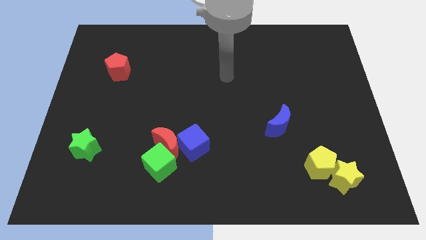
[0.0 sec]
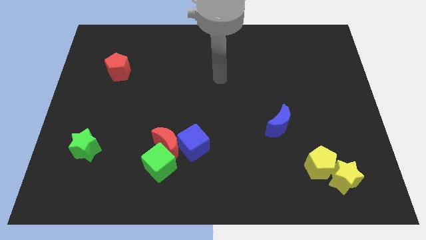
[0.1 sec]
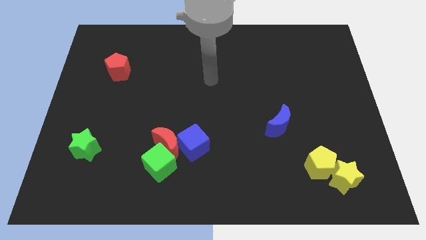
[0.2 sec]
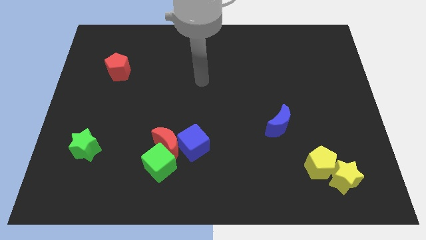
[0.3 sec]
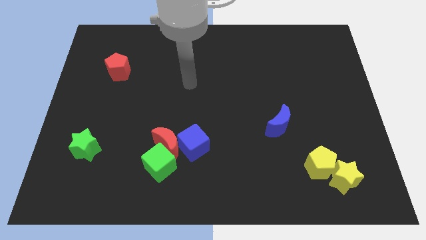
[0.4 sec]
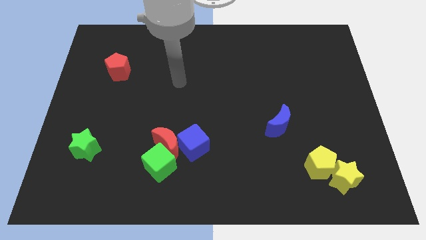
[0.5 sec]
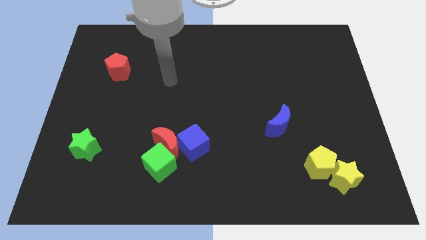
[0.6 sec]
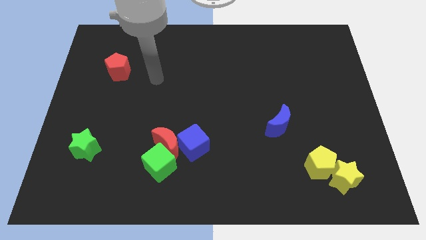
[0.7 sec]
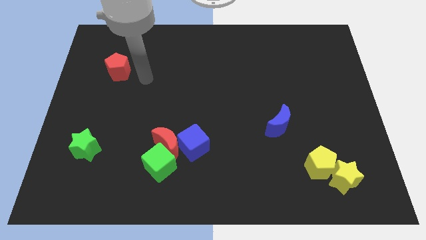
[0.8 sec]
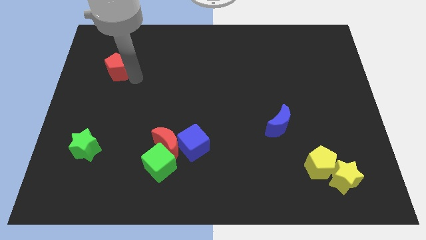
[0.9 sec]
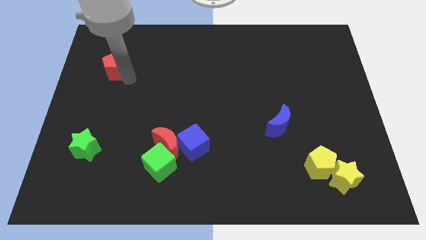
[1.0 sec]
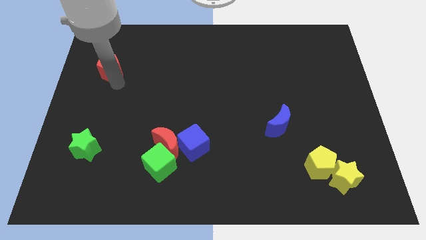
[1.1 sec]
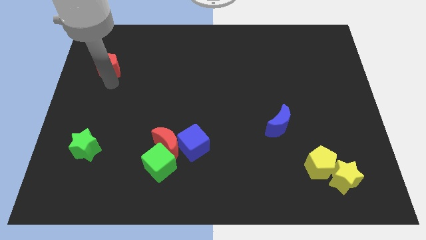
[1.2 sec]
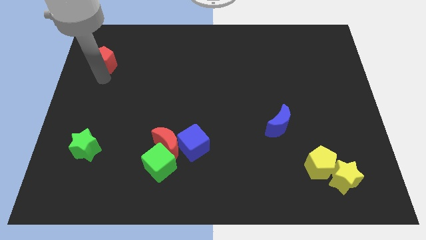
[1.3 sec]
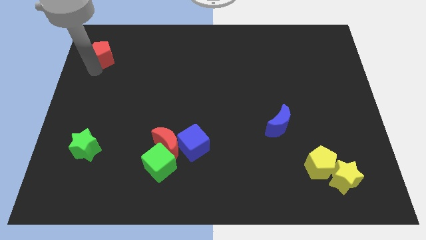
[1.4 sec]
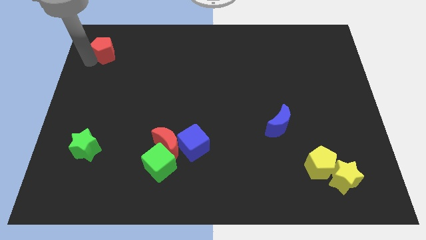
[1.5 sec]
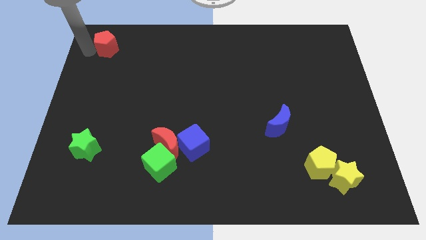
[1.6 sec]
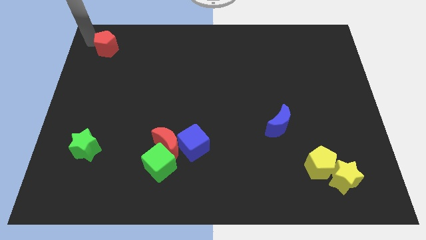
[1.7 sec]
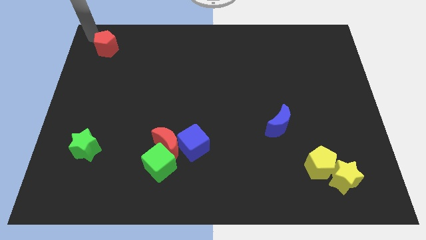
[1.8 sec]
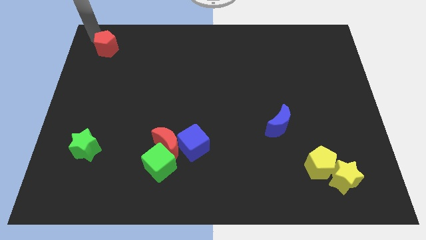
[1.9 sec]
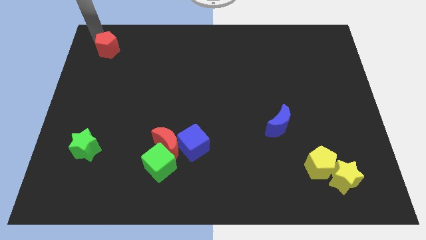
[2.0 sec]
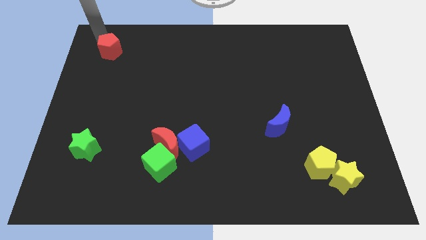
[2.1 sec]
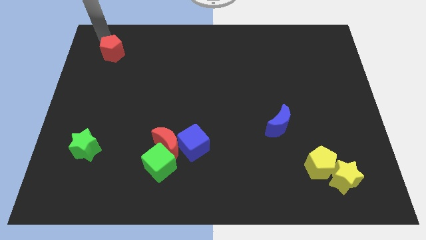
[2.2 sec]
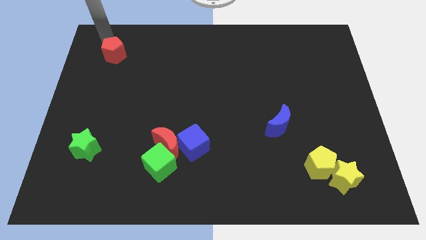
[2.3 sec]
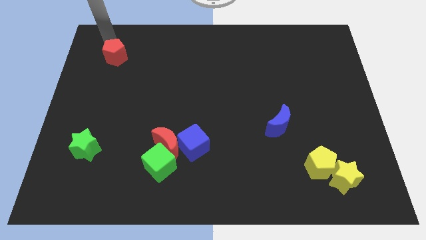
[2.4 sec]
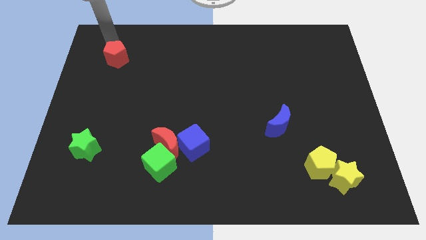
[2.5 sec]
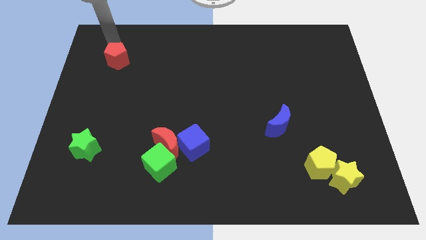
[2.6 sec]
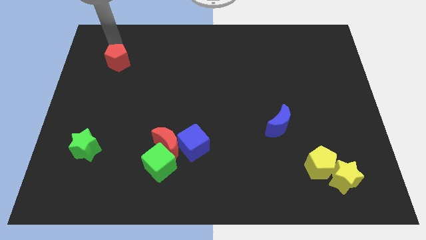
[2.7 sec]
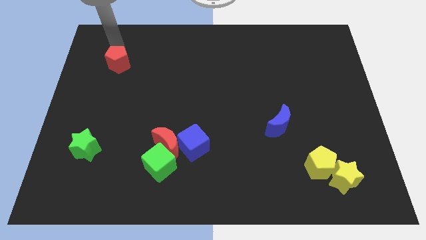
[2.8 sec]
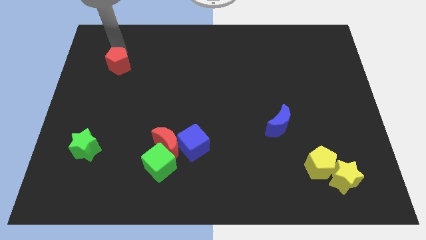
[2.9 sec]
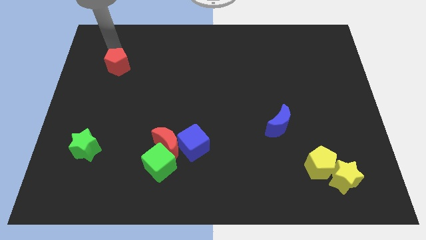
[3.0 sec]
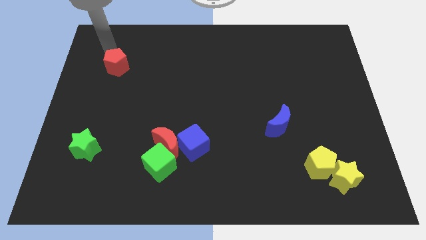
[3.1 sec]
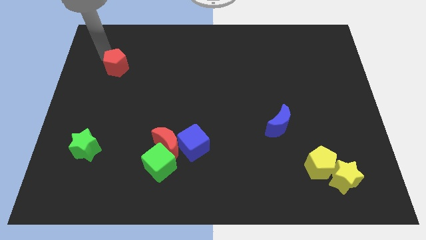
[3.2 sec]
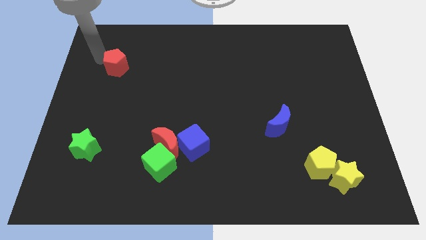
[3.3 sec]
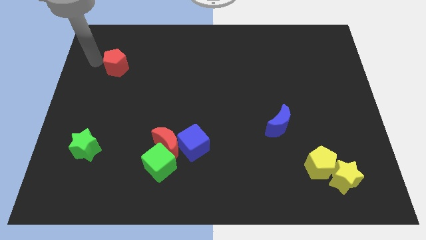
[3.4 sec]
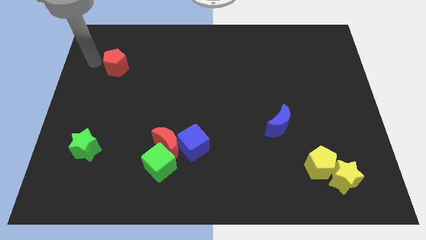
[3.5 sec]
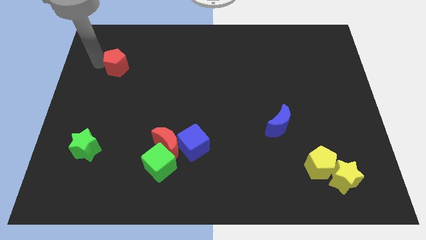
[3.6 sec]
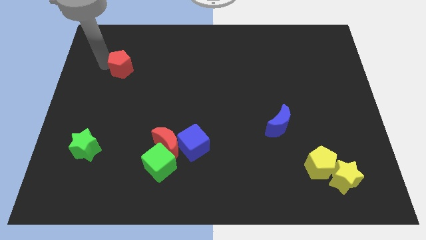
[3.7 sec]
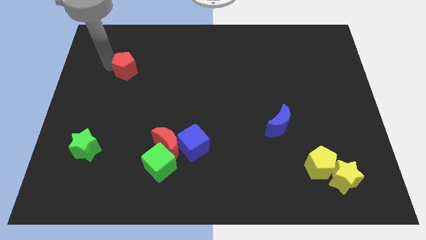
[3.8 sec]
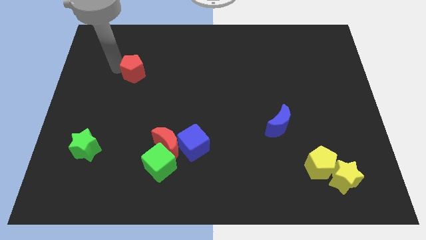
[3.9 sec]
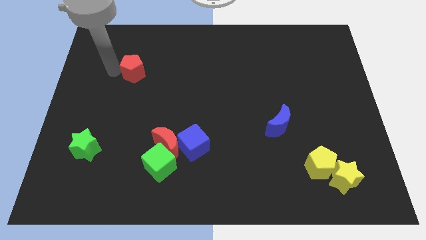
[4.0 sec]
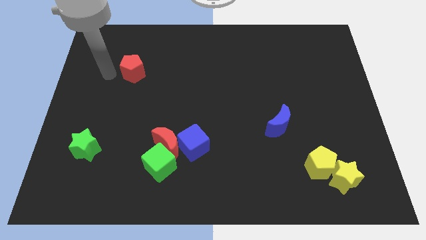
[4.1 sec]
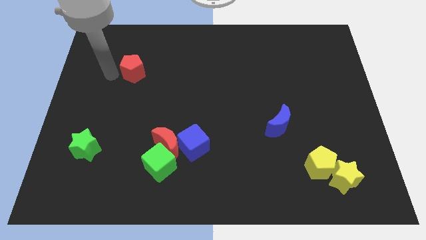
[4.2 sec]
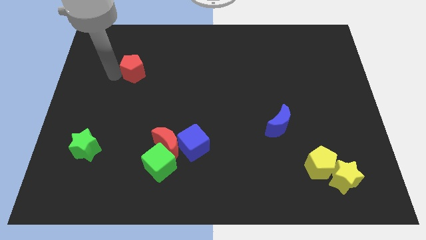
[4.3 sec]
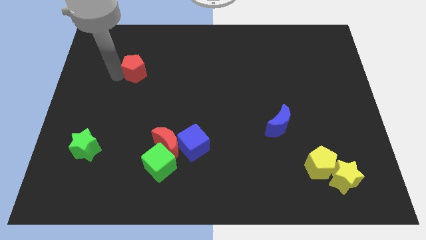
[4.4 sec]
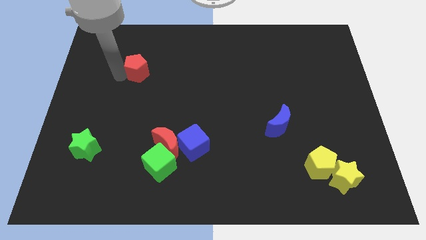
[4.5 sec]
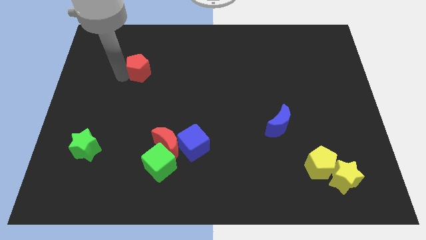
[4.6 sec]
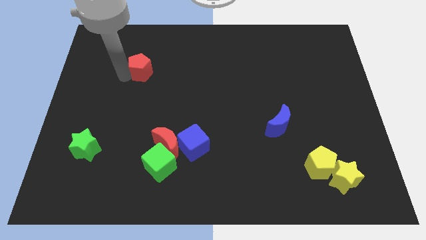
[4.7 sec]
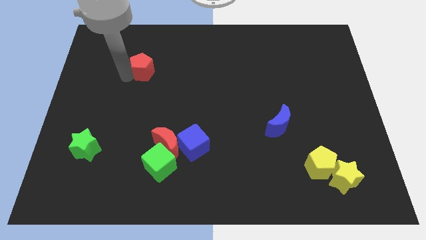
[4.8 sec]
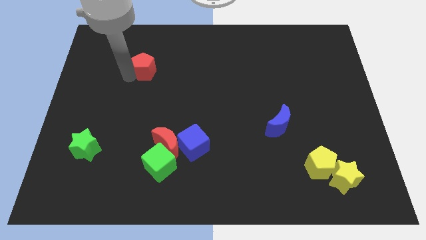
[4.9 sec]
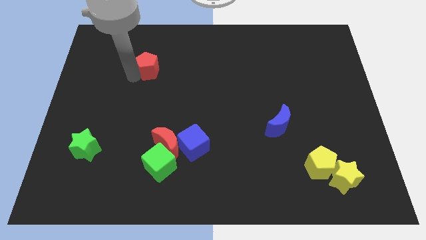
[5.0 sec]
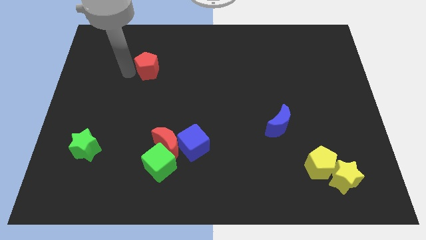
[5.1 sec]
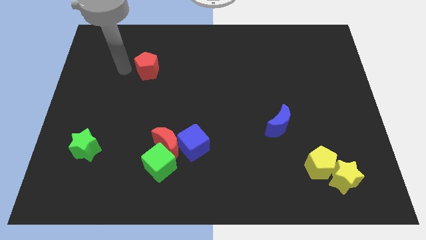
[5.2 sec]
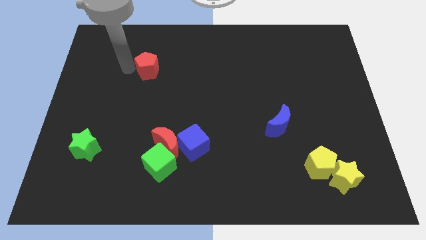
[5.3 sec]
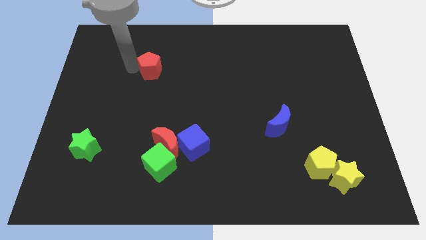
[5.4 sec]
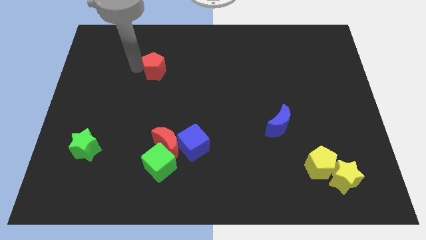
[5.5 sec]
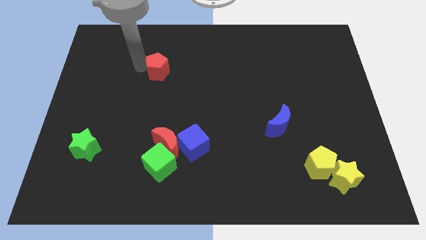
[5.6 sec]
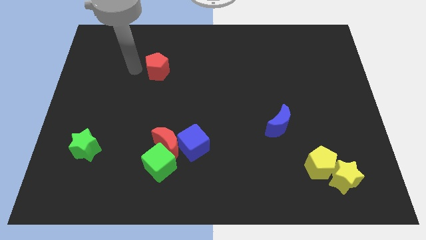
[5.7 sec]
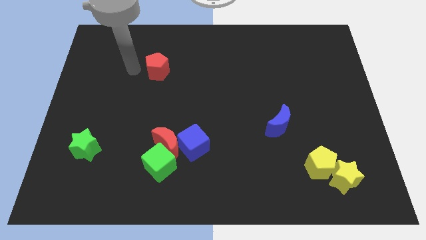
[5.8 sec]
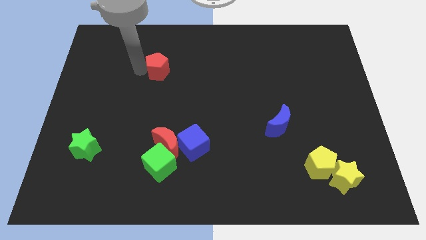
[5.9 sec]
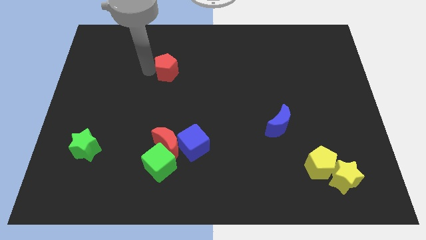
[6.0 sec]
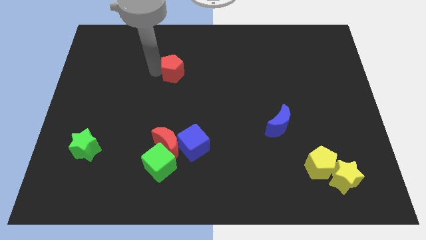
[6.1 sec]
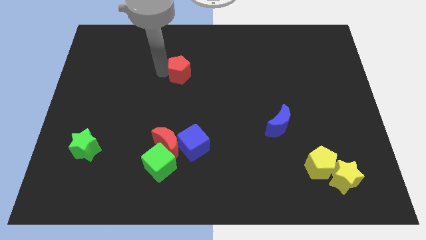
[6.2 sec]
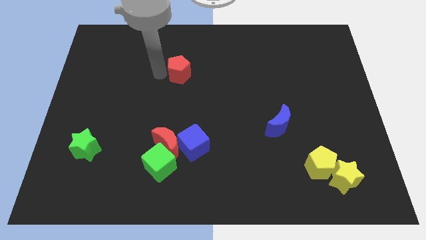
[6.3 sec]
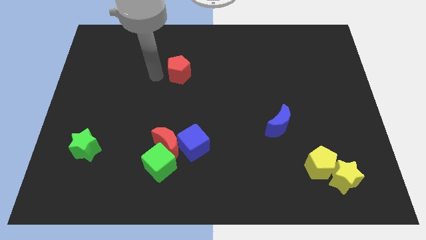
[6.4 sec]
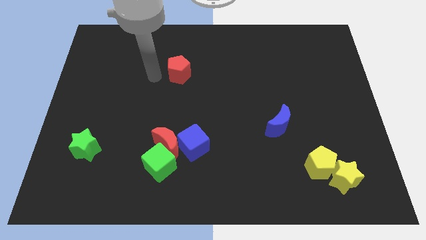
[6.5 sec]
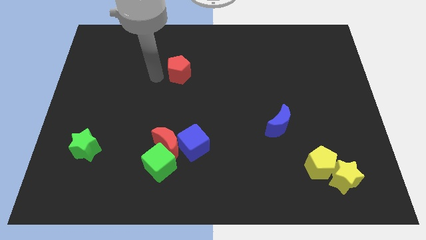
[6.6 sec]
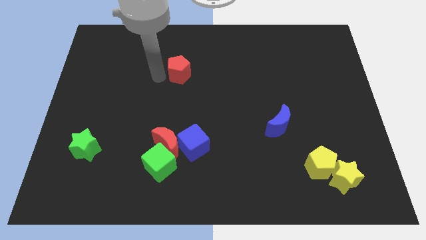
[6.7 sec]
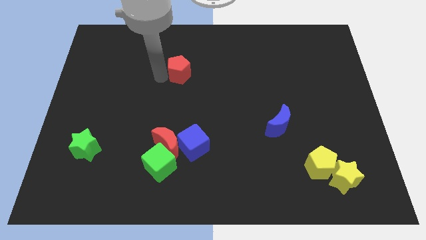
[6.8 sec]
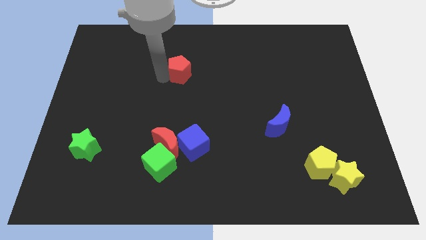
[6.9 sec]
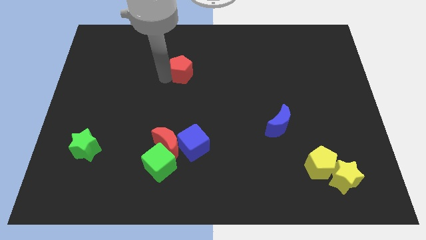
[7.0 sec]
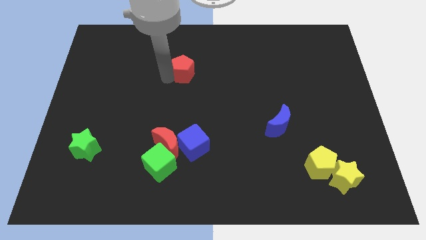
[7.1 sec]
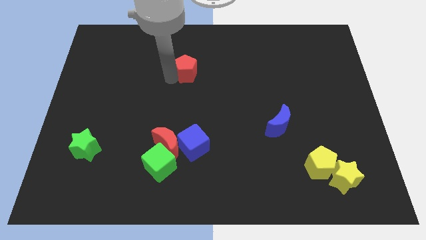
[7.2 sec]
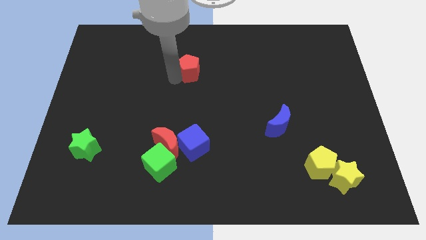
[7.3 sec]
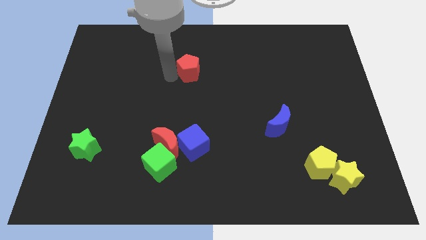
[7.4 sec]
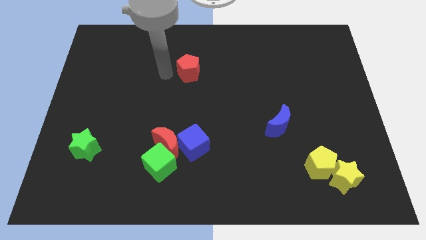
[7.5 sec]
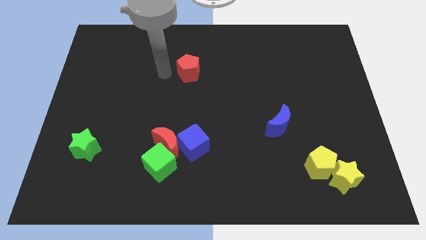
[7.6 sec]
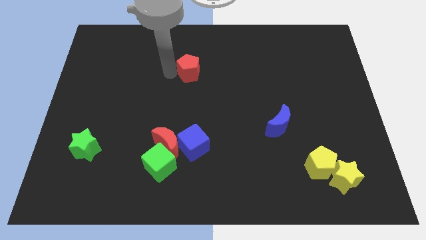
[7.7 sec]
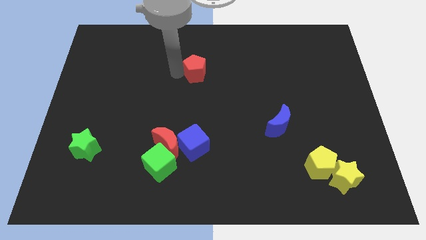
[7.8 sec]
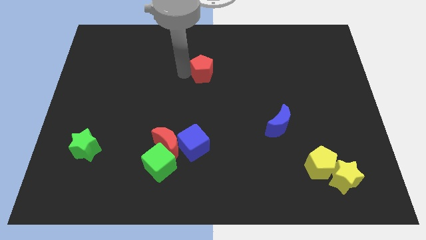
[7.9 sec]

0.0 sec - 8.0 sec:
push the red pentagon right

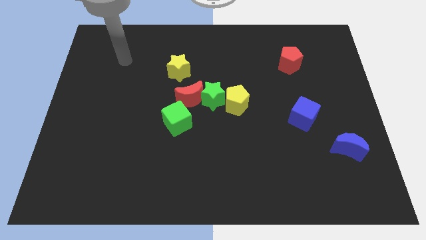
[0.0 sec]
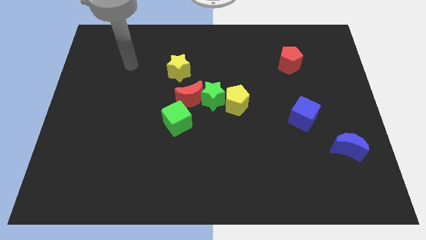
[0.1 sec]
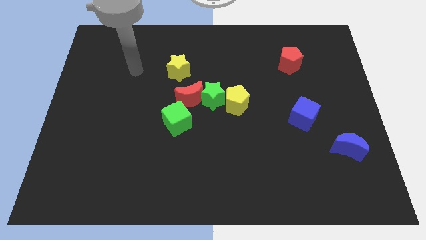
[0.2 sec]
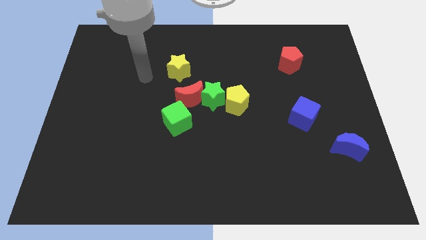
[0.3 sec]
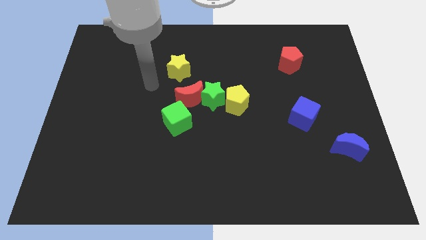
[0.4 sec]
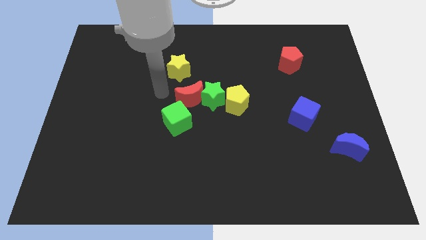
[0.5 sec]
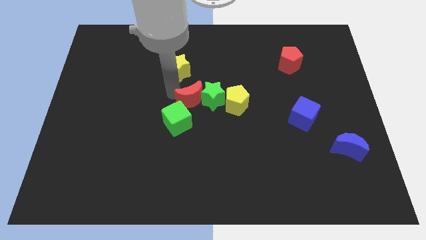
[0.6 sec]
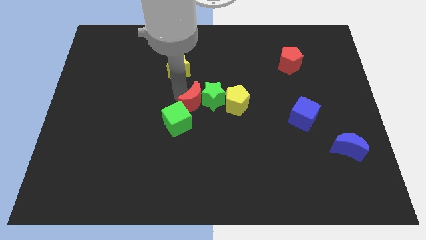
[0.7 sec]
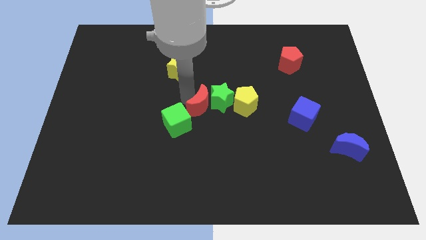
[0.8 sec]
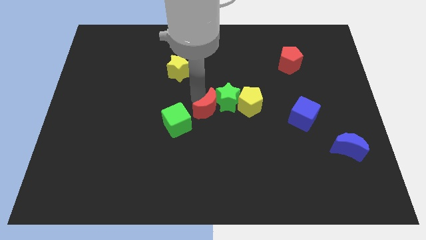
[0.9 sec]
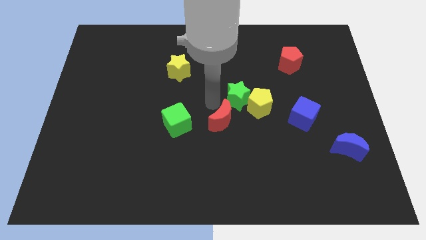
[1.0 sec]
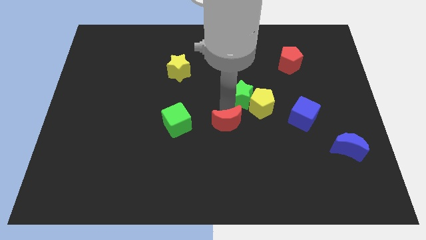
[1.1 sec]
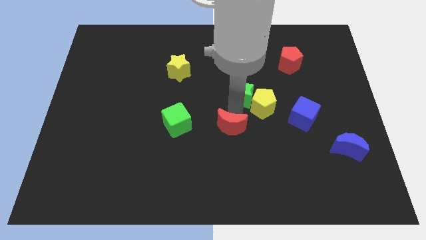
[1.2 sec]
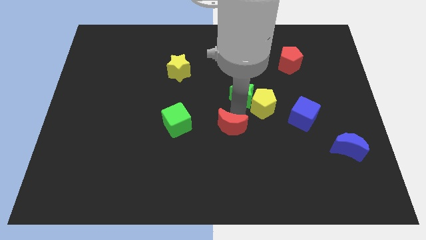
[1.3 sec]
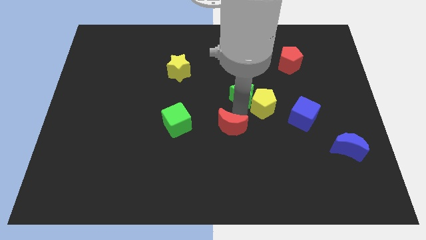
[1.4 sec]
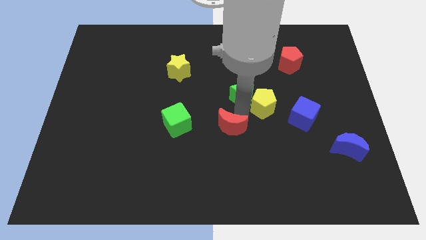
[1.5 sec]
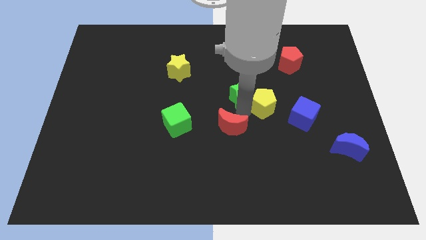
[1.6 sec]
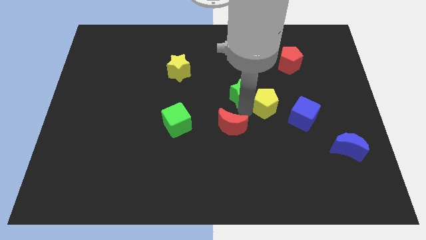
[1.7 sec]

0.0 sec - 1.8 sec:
move the yellow pentagon a little to the right
